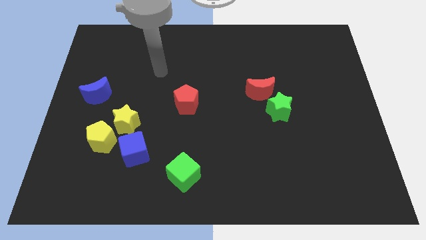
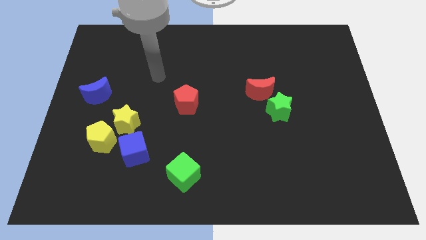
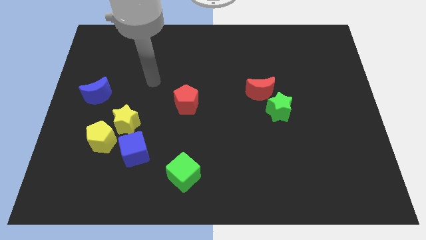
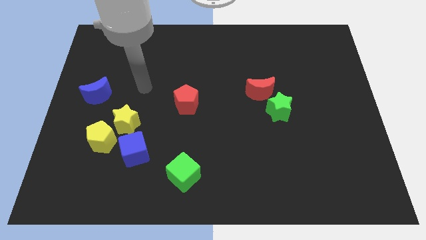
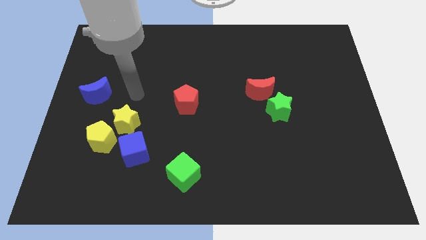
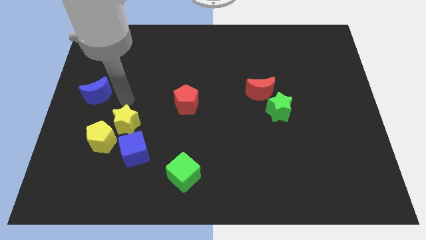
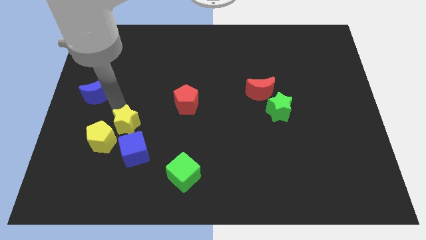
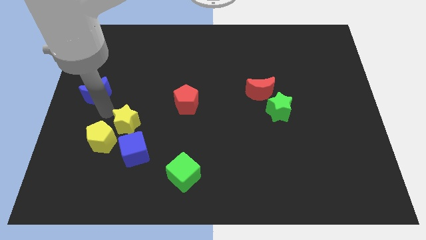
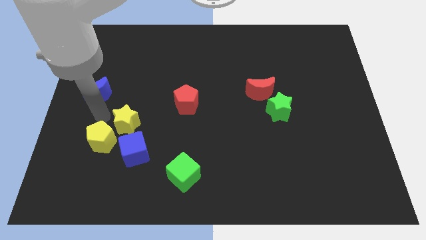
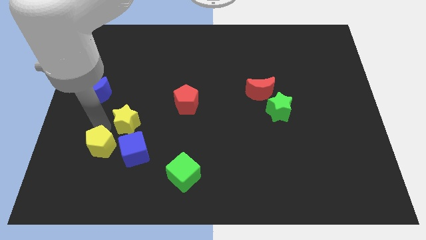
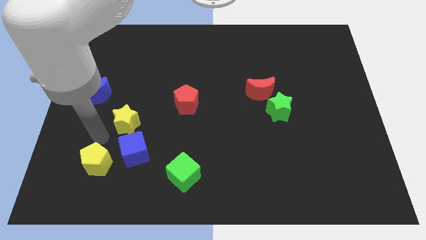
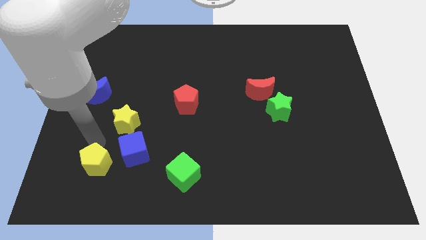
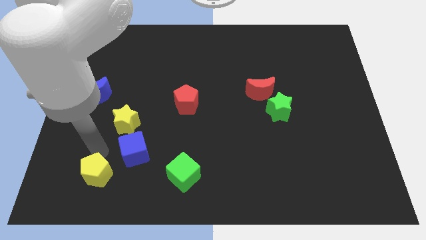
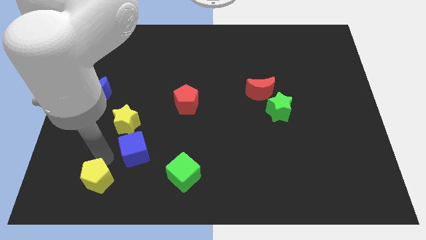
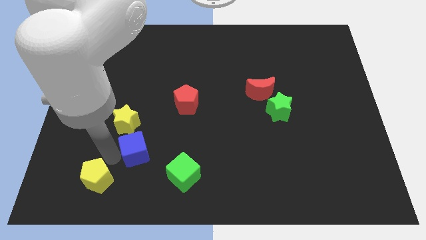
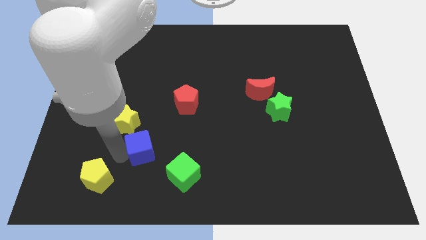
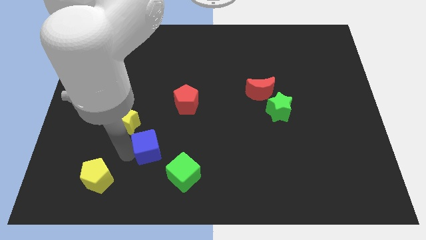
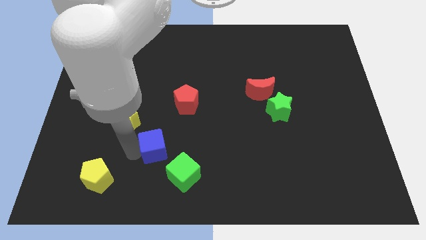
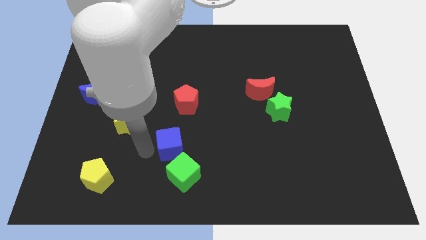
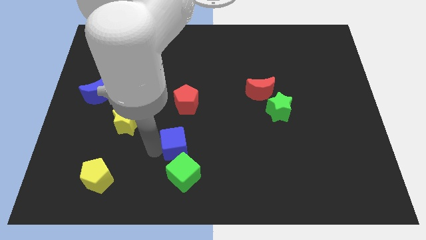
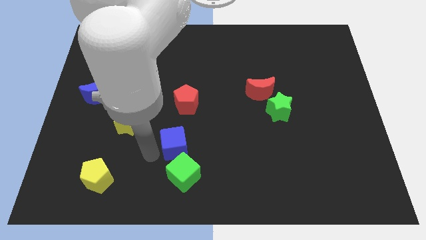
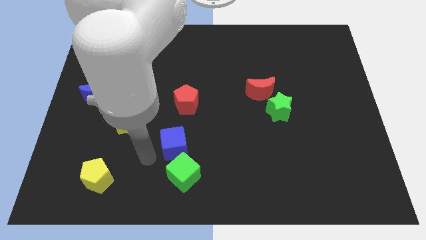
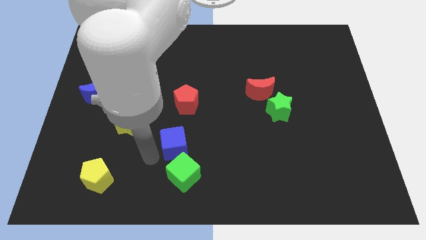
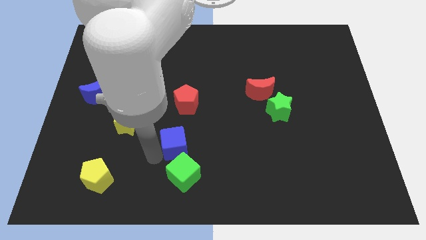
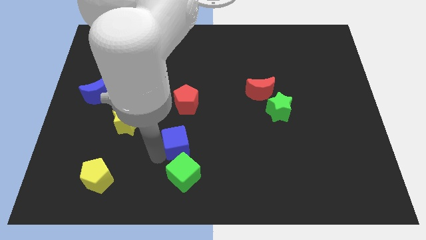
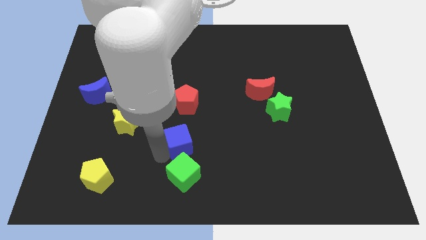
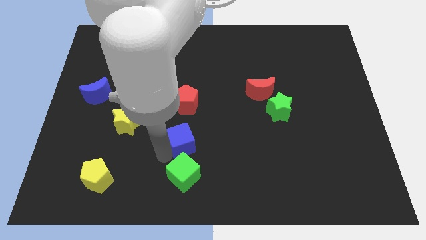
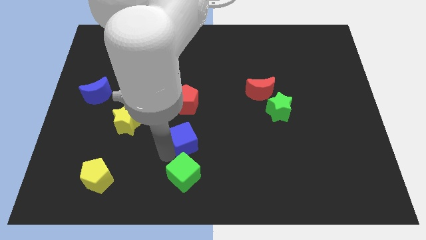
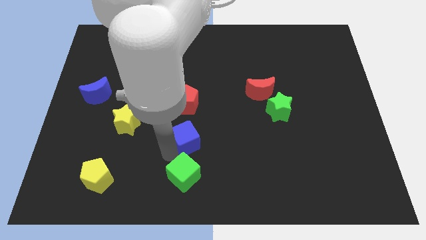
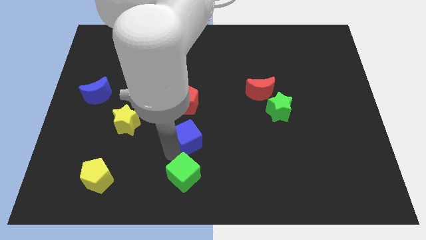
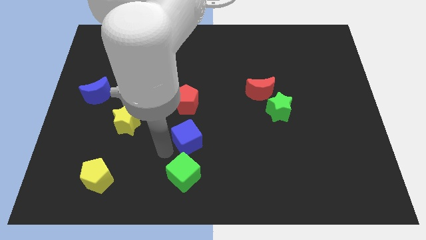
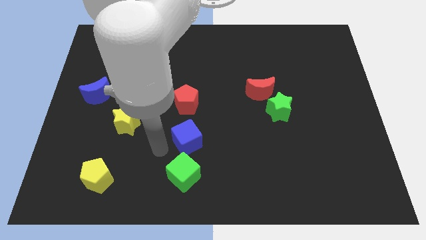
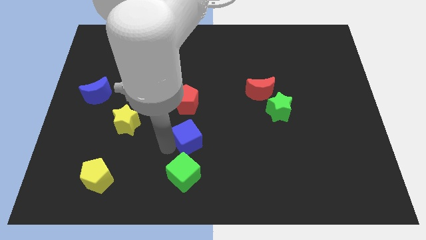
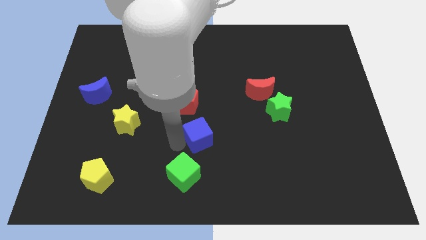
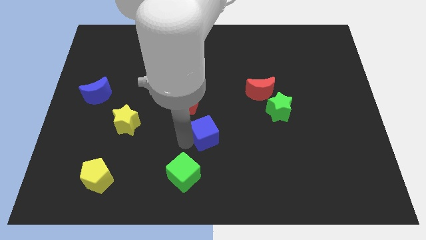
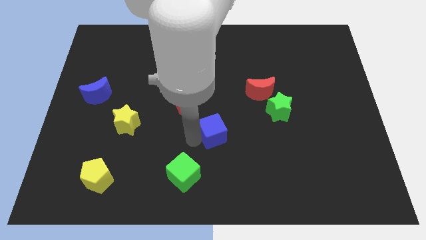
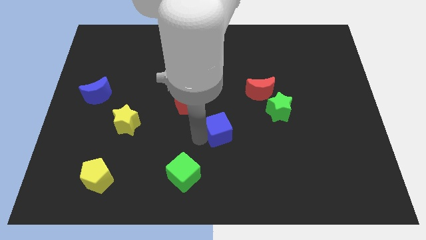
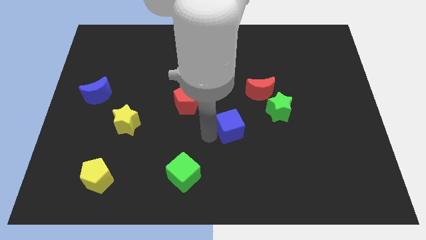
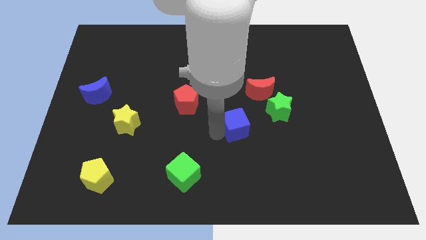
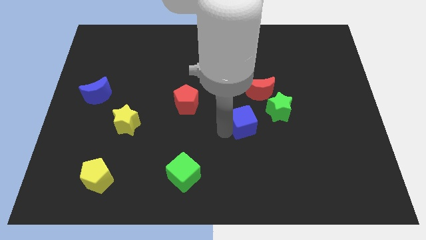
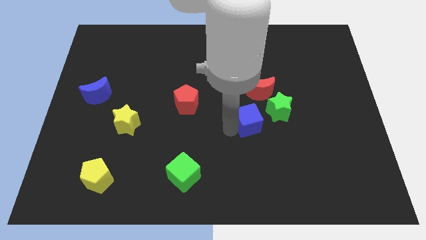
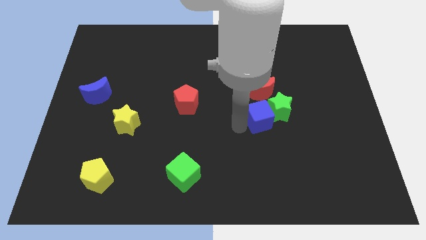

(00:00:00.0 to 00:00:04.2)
slide the blue cube close to the green star

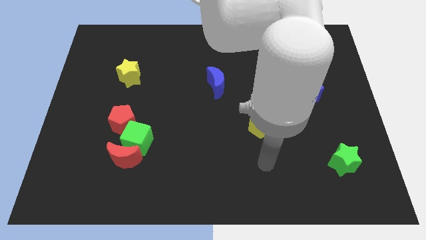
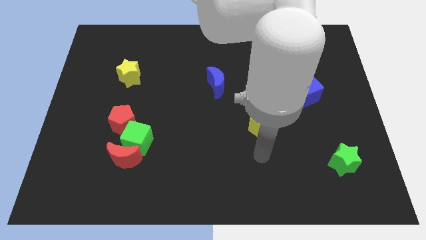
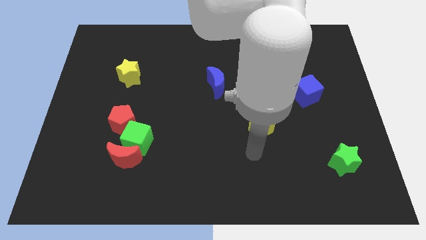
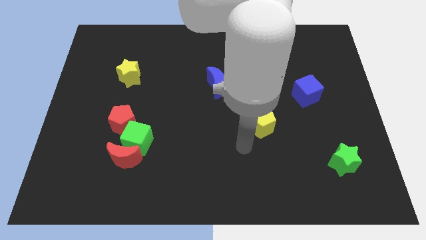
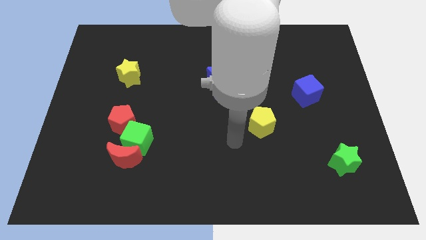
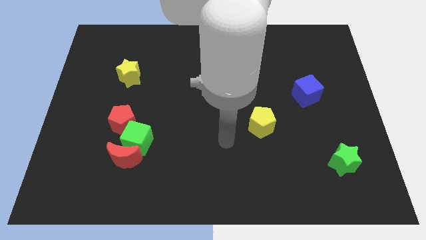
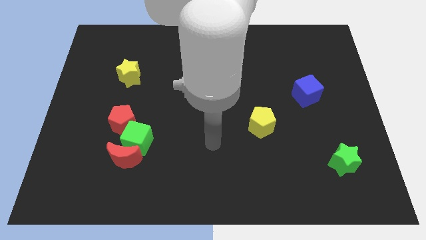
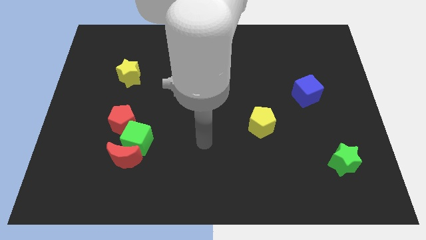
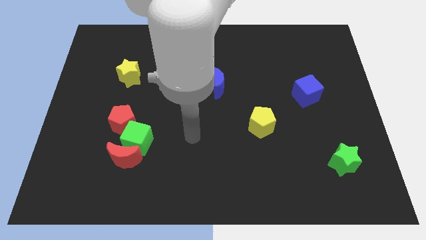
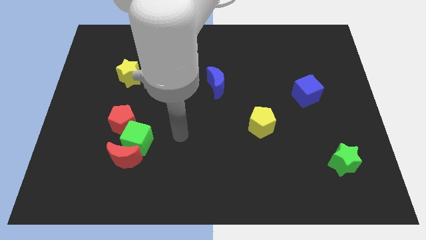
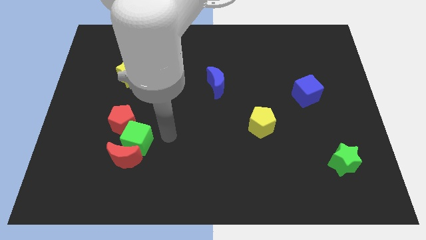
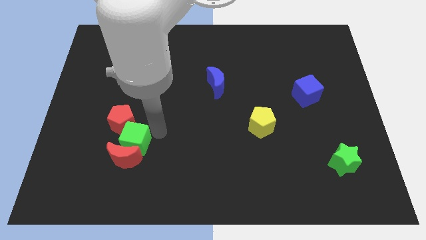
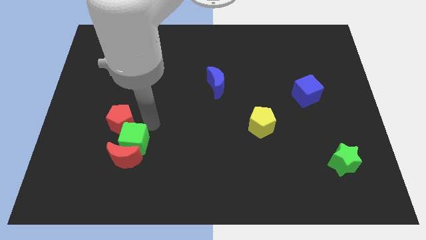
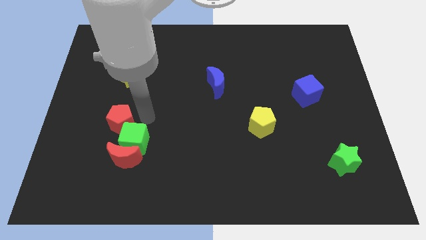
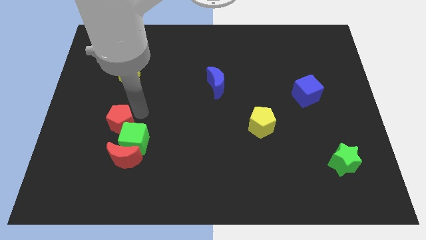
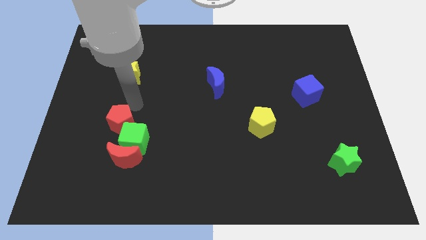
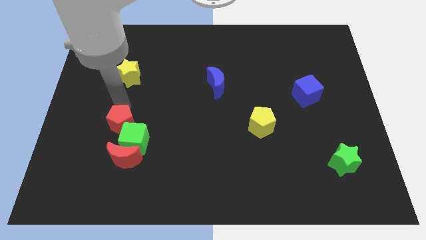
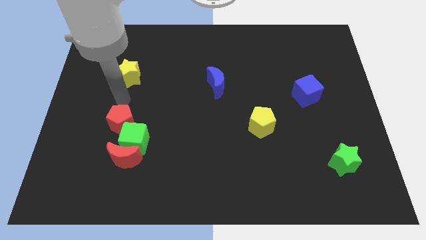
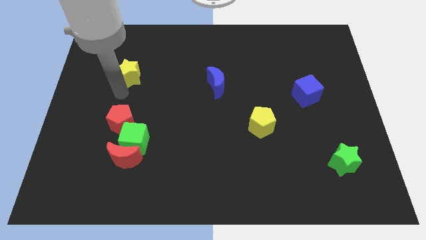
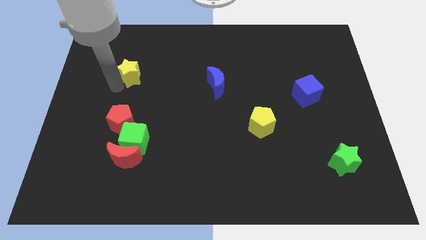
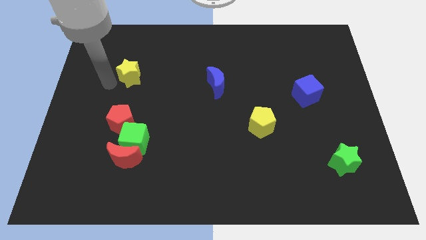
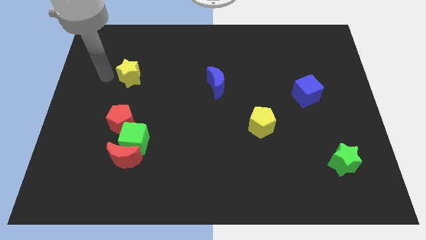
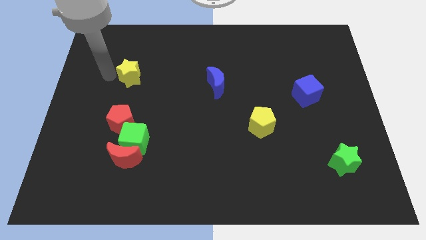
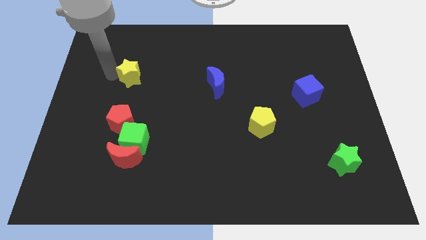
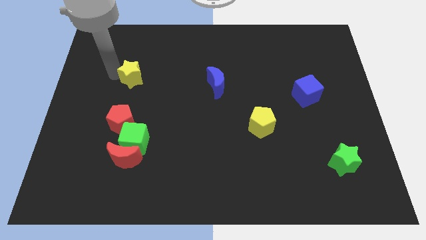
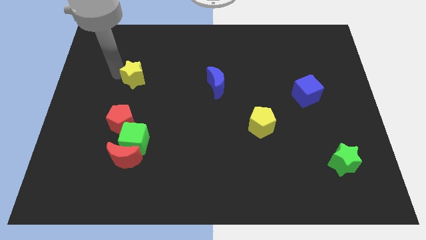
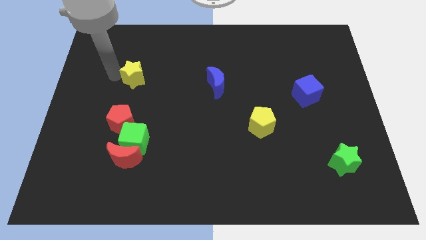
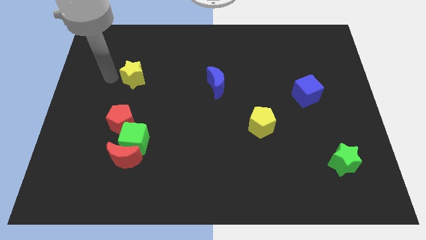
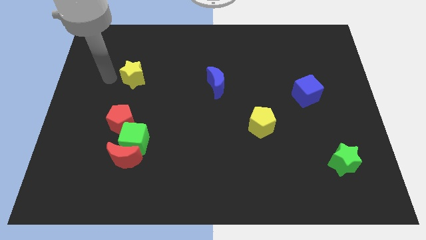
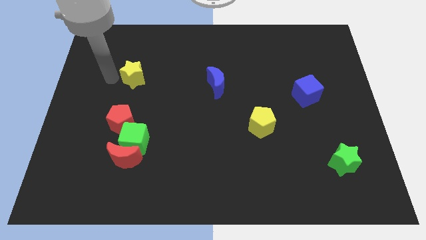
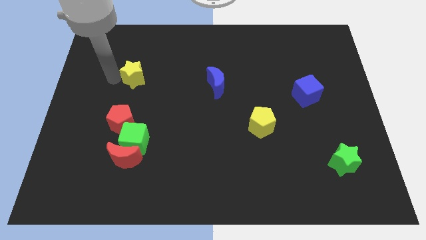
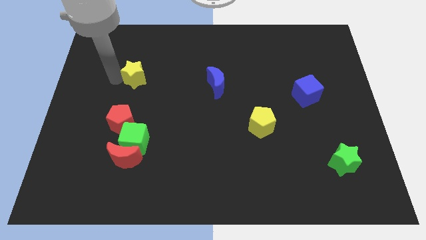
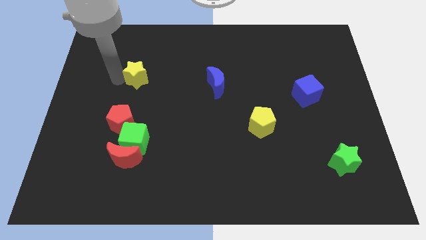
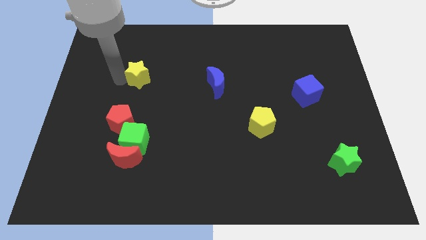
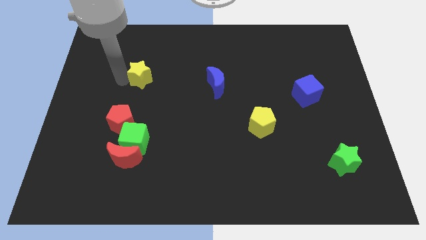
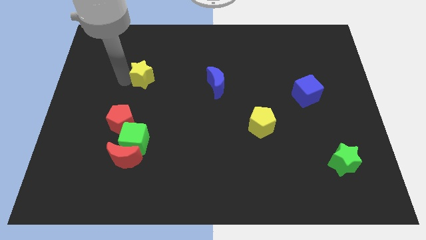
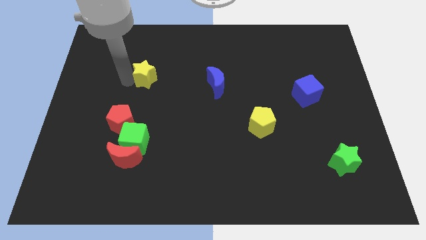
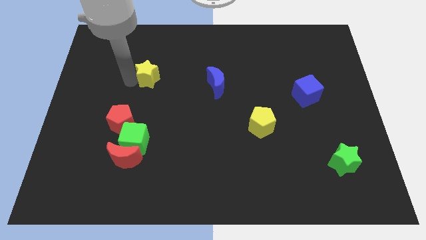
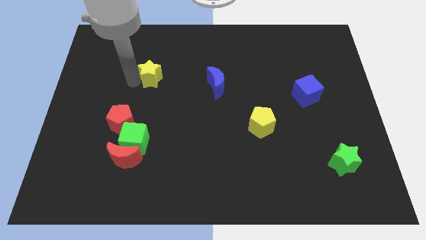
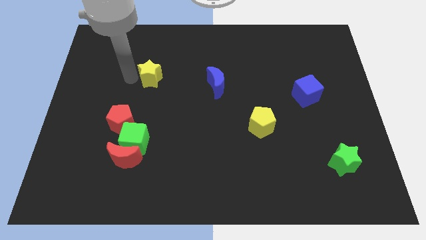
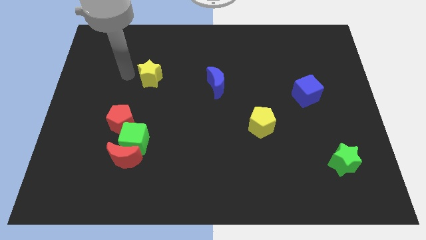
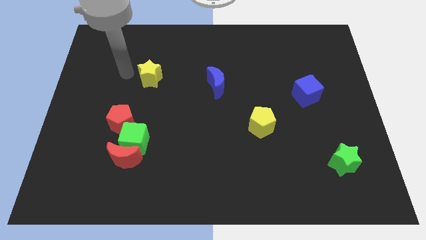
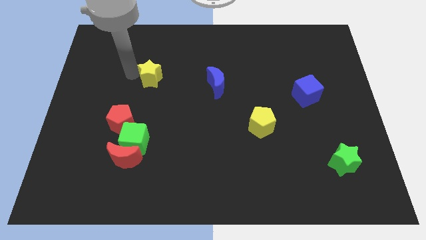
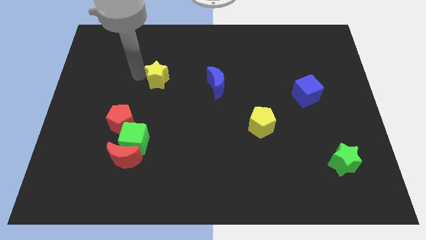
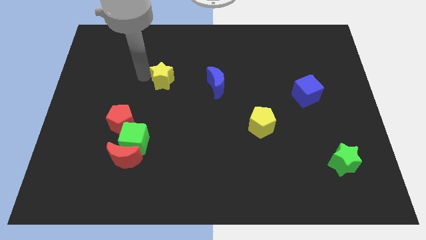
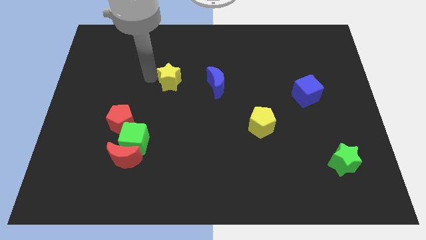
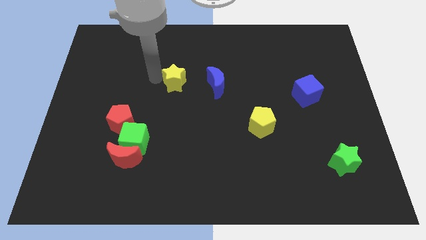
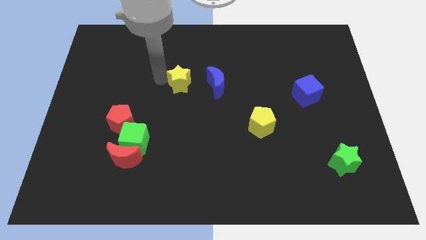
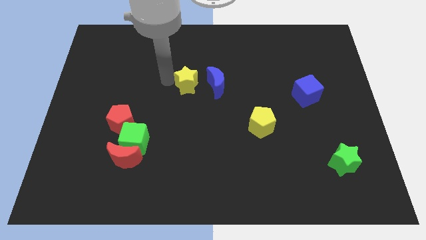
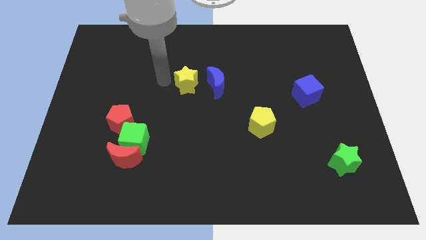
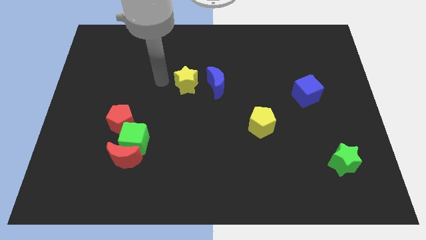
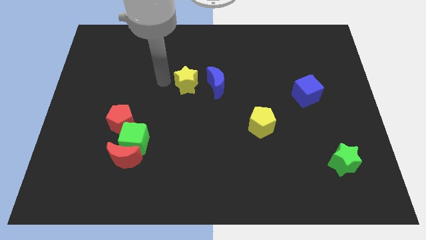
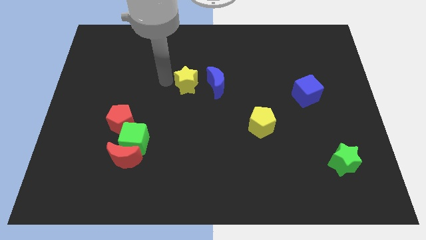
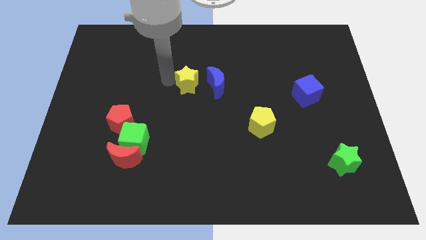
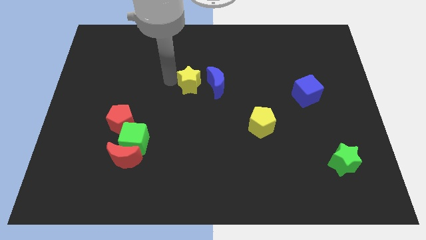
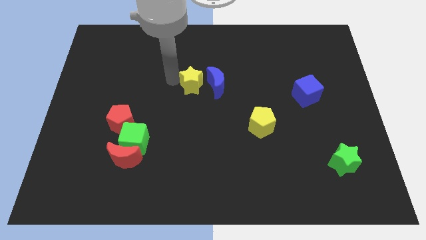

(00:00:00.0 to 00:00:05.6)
put the yellow star next to the blue moon
